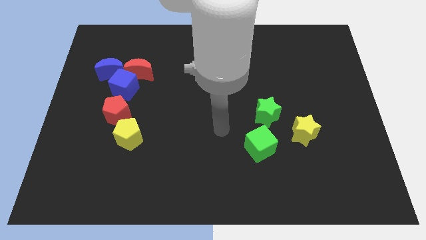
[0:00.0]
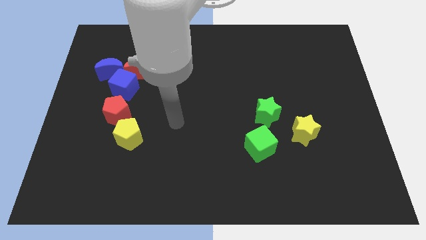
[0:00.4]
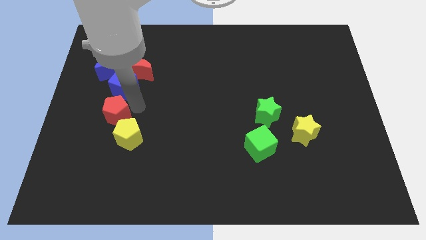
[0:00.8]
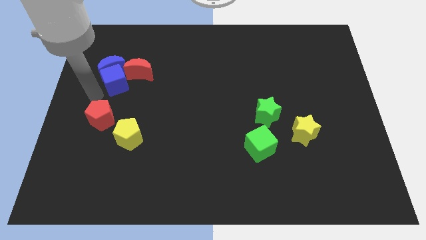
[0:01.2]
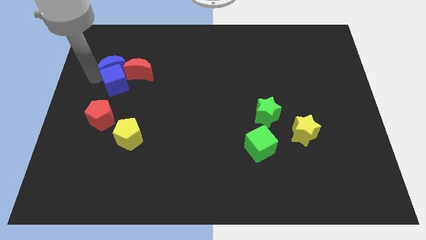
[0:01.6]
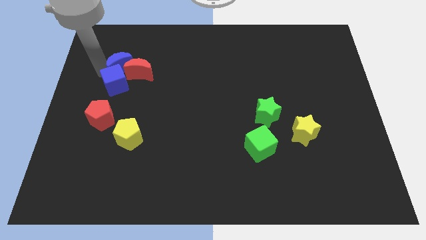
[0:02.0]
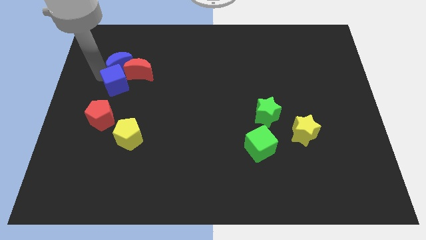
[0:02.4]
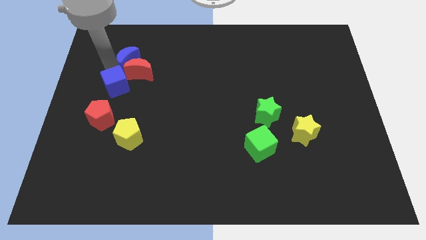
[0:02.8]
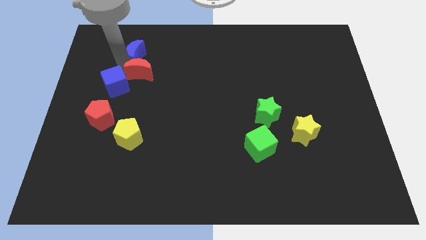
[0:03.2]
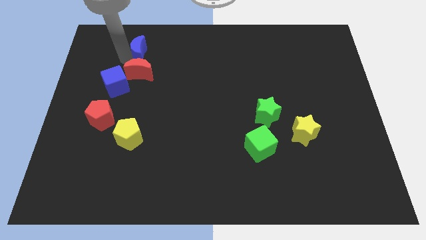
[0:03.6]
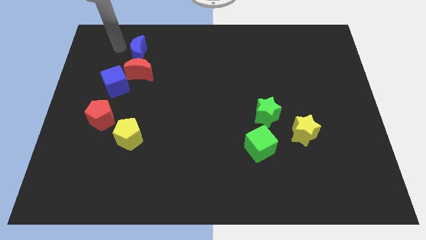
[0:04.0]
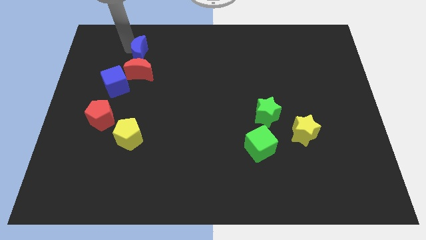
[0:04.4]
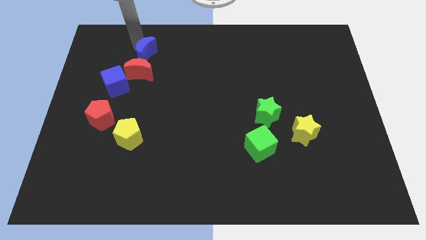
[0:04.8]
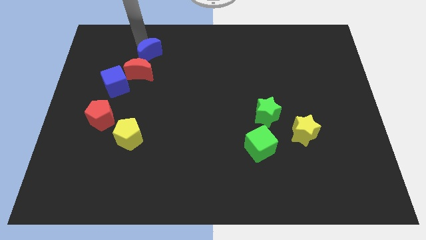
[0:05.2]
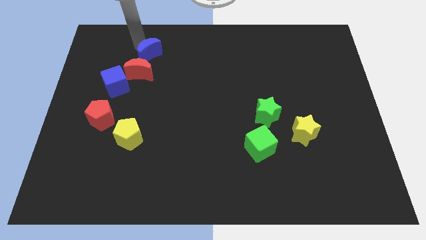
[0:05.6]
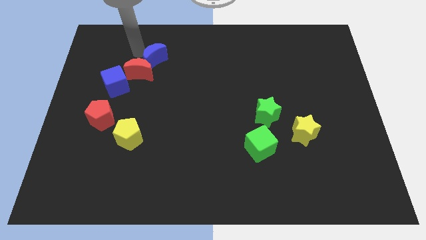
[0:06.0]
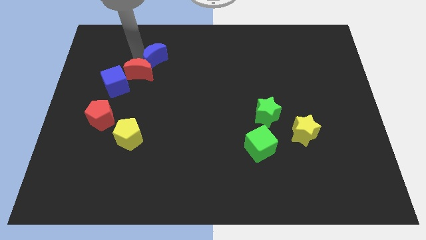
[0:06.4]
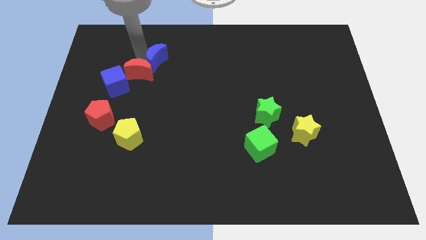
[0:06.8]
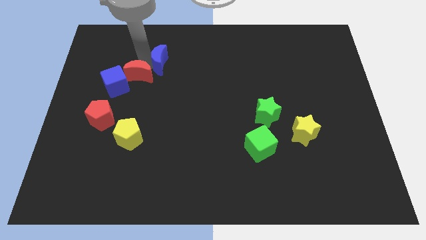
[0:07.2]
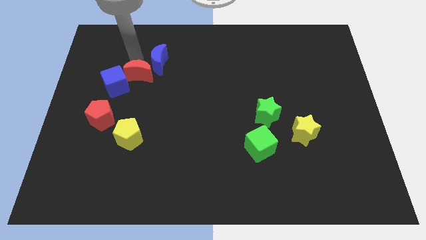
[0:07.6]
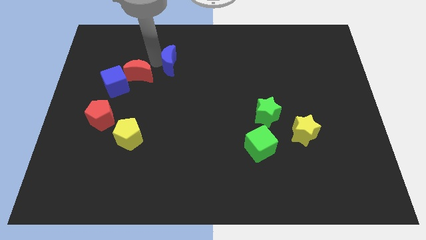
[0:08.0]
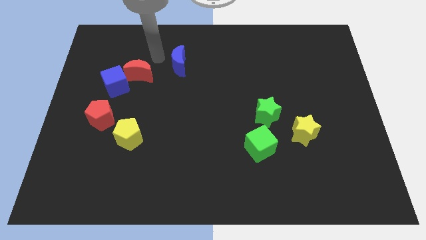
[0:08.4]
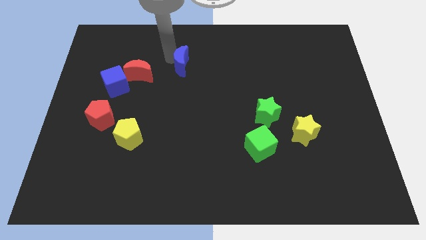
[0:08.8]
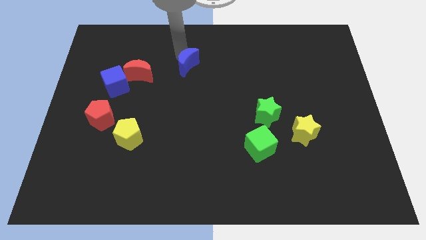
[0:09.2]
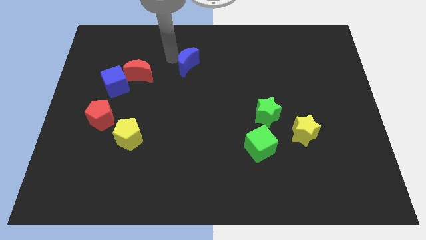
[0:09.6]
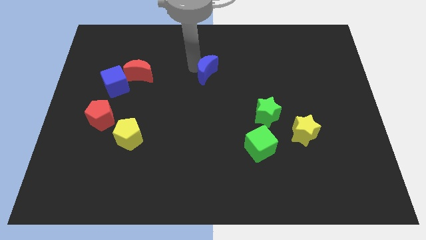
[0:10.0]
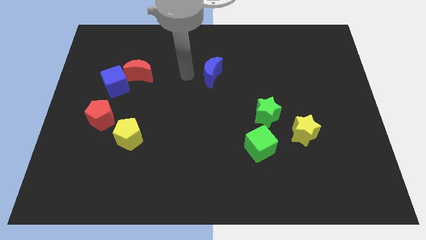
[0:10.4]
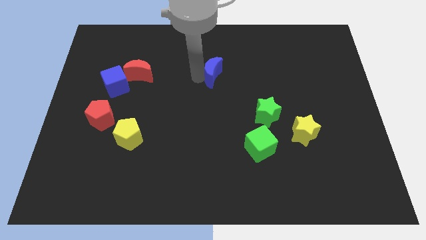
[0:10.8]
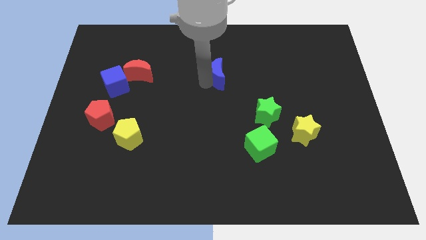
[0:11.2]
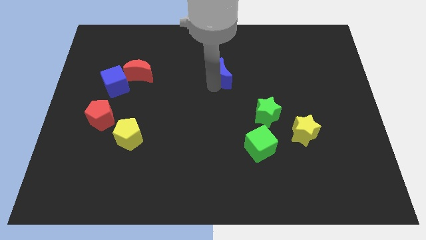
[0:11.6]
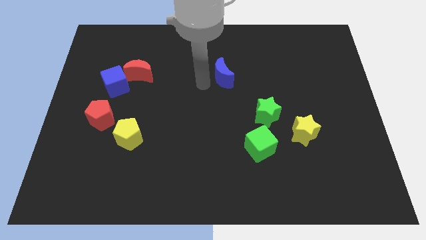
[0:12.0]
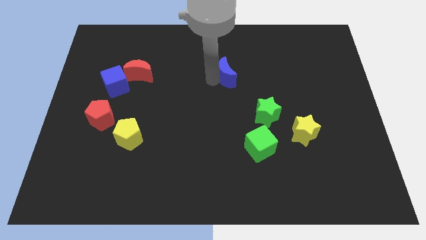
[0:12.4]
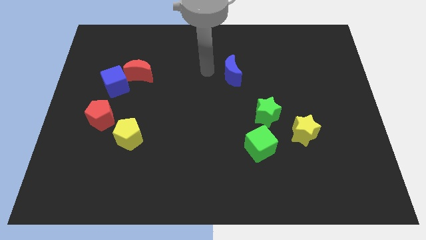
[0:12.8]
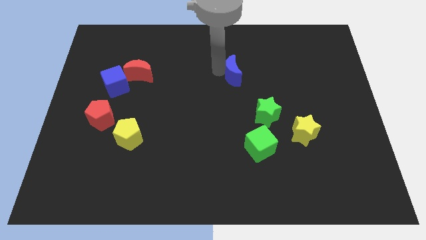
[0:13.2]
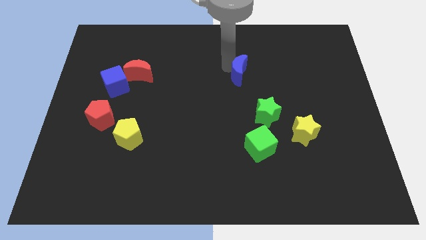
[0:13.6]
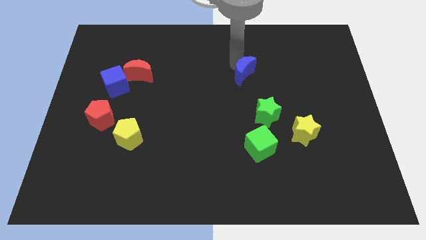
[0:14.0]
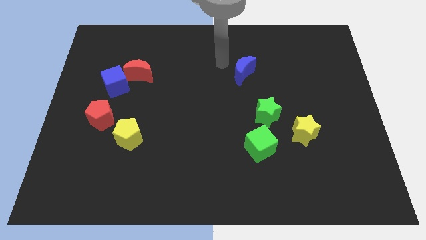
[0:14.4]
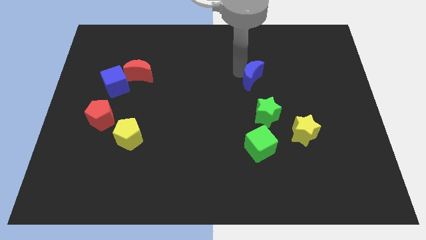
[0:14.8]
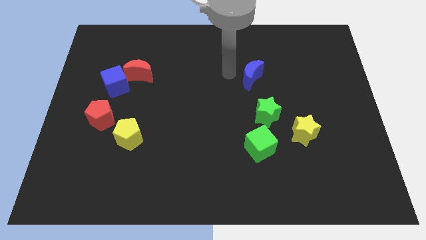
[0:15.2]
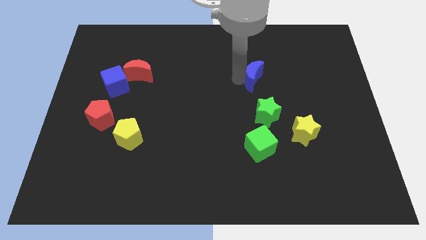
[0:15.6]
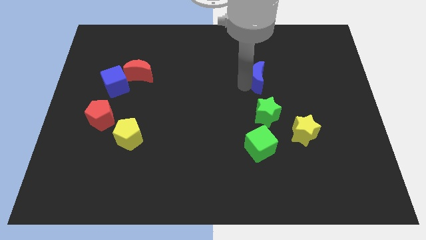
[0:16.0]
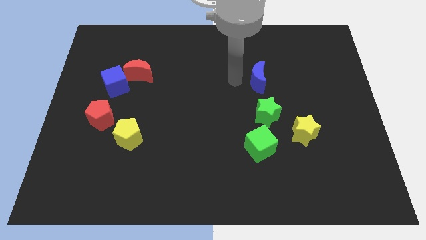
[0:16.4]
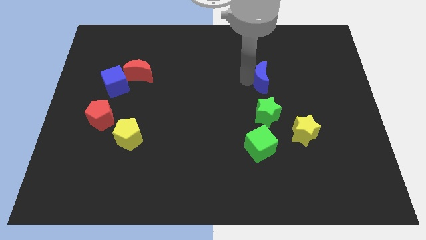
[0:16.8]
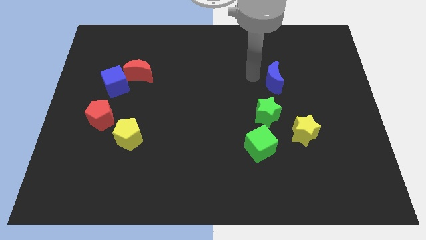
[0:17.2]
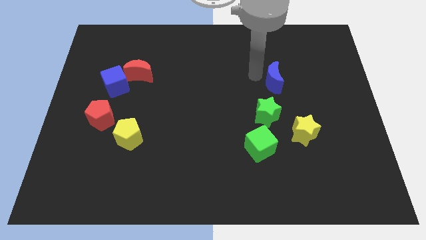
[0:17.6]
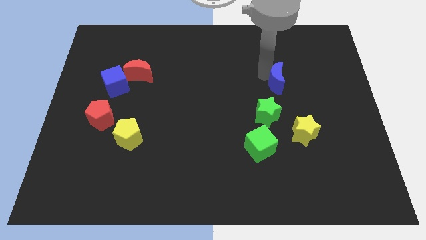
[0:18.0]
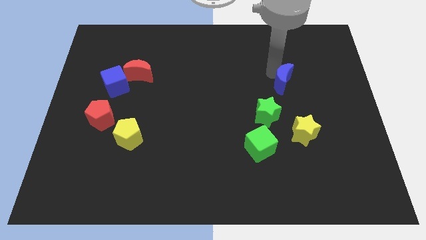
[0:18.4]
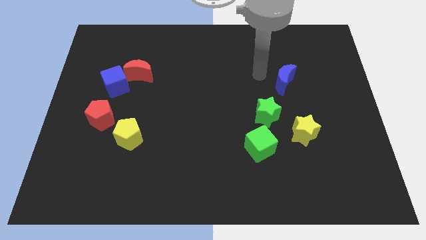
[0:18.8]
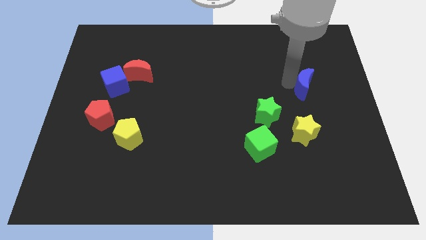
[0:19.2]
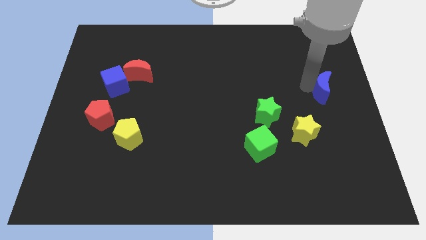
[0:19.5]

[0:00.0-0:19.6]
move the blue moon to the right side

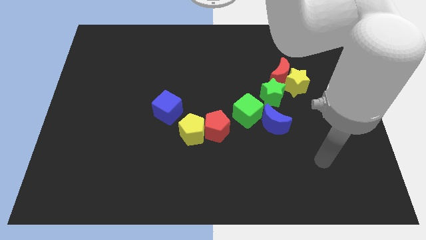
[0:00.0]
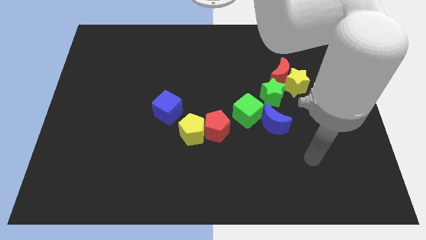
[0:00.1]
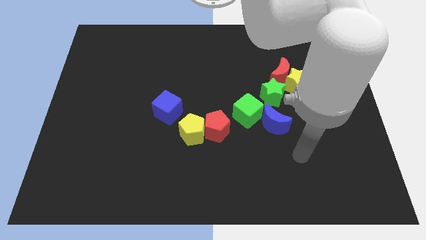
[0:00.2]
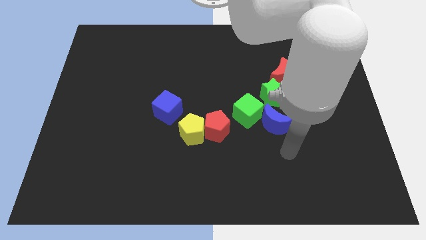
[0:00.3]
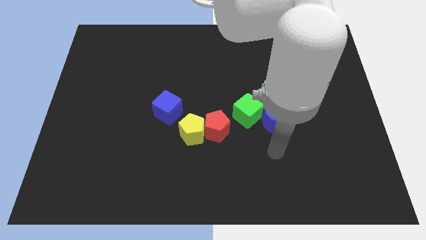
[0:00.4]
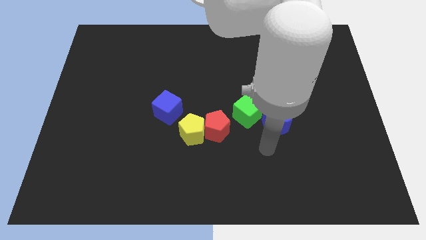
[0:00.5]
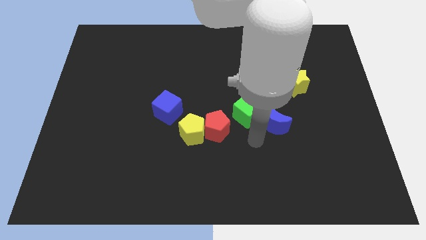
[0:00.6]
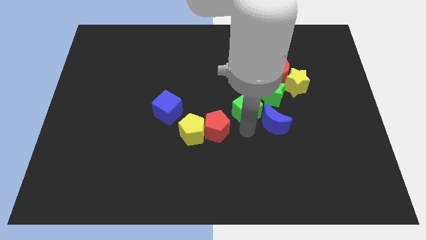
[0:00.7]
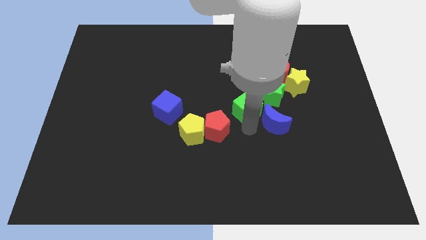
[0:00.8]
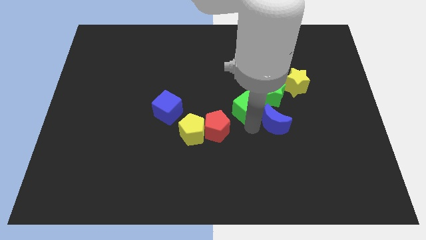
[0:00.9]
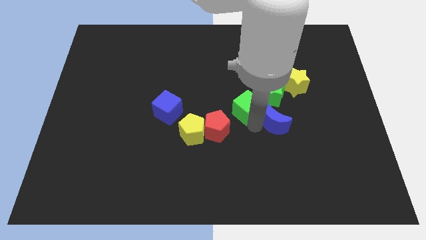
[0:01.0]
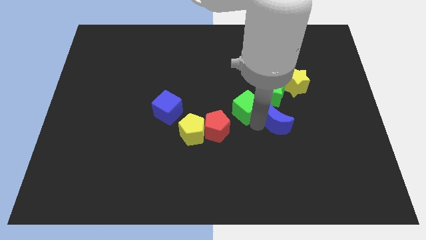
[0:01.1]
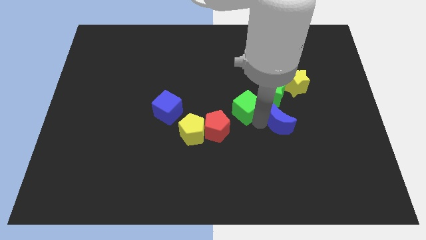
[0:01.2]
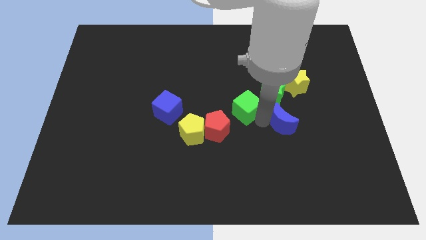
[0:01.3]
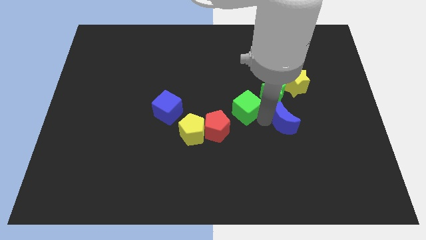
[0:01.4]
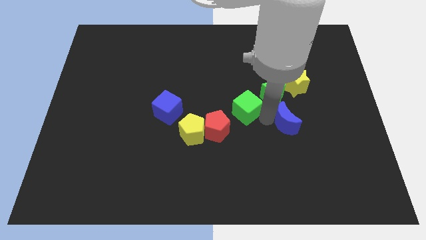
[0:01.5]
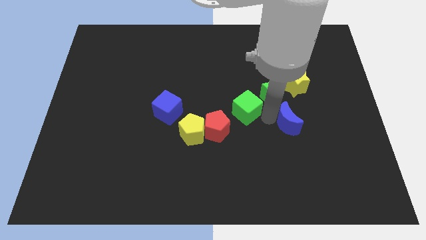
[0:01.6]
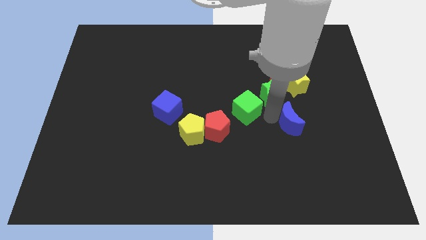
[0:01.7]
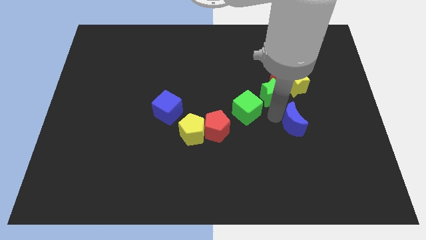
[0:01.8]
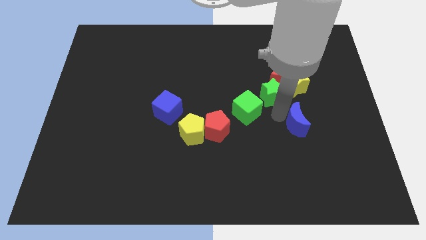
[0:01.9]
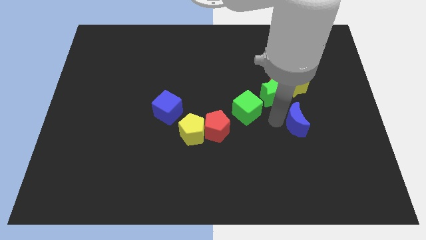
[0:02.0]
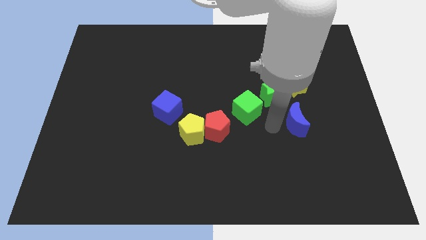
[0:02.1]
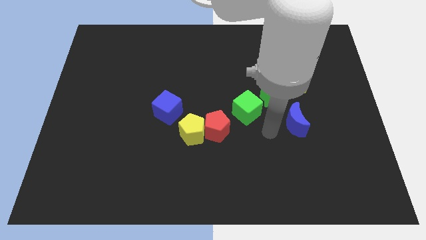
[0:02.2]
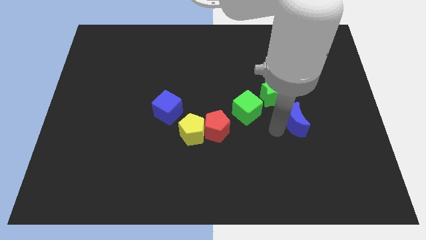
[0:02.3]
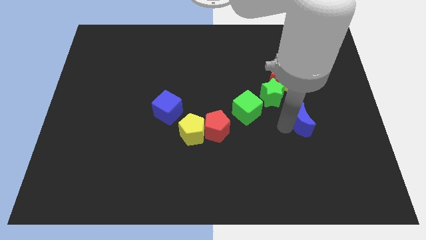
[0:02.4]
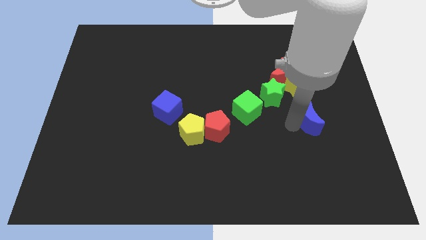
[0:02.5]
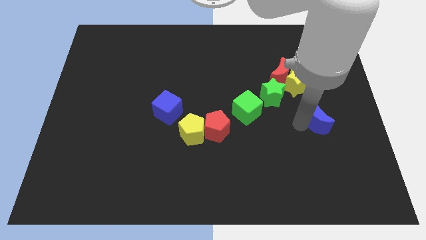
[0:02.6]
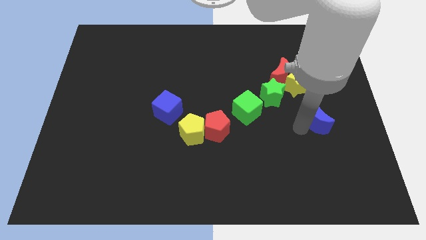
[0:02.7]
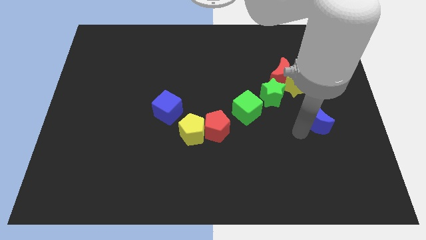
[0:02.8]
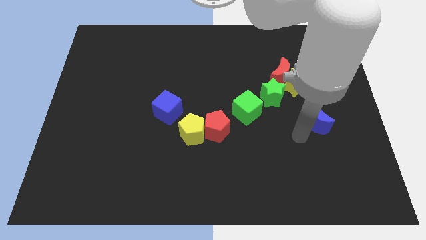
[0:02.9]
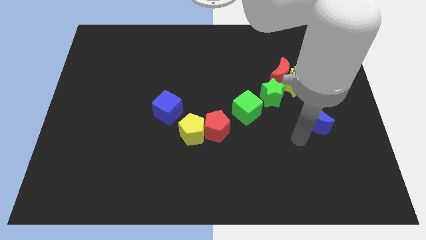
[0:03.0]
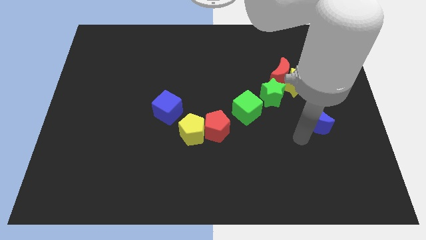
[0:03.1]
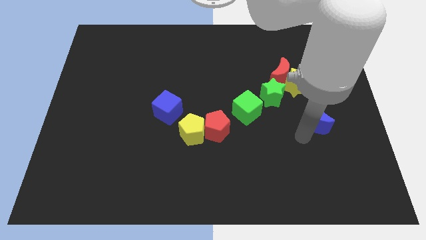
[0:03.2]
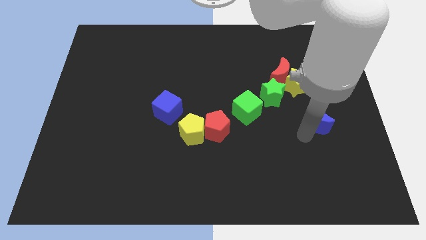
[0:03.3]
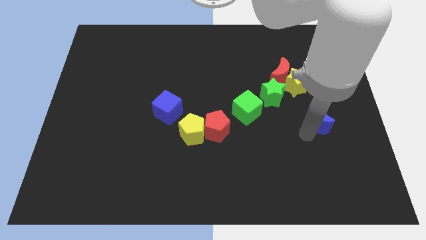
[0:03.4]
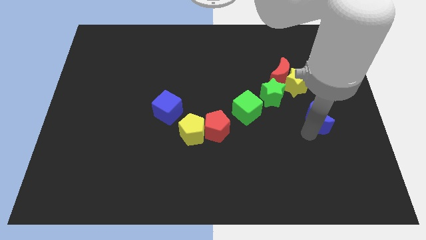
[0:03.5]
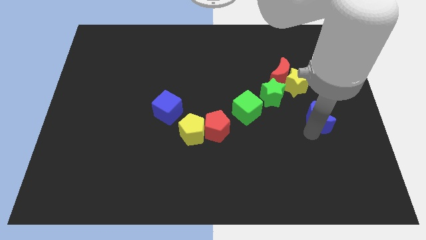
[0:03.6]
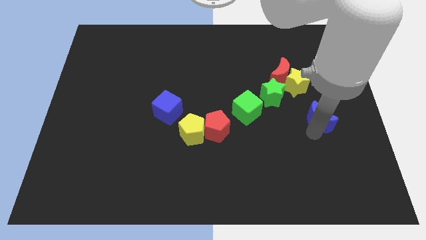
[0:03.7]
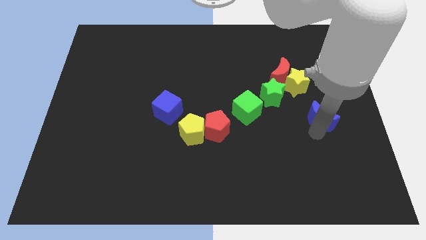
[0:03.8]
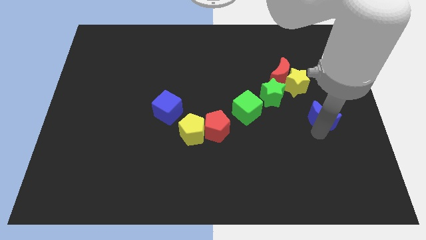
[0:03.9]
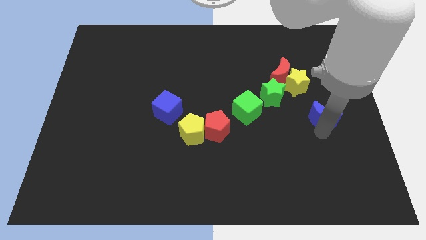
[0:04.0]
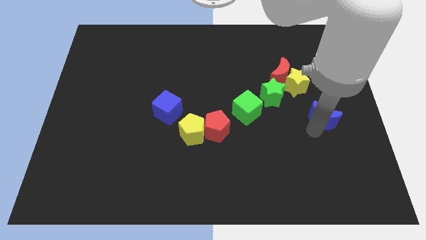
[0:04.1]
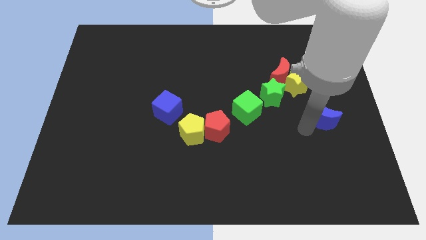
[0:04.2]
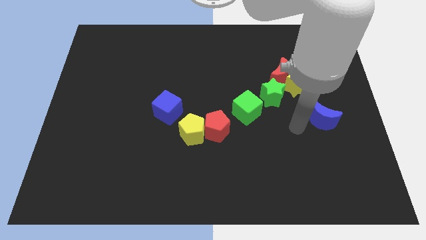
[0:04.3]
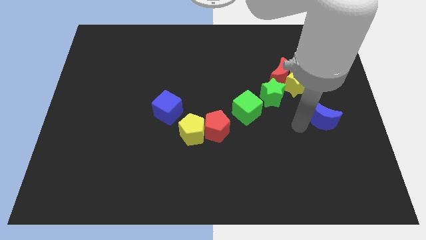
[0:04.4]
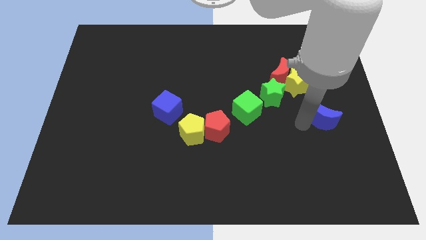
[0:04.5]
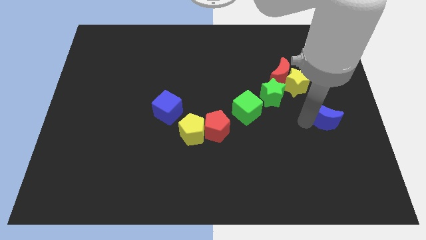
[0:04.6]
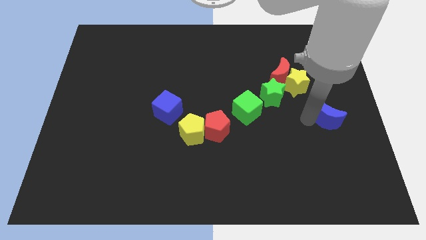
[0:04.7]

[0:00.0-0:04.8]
move the blue moon to the right side of the board
